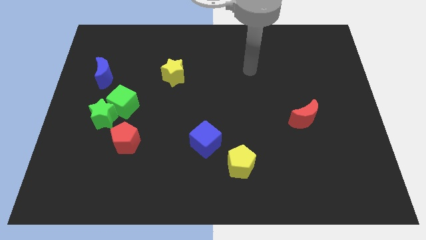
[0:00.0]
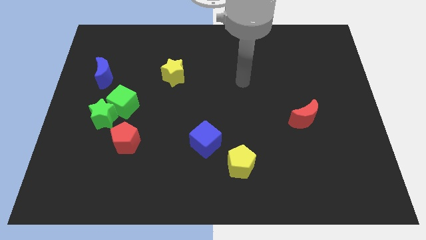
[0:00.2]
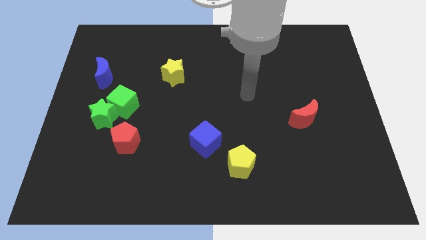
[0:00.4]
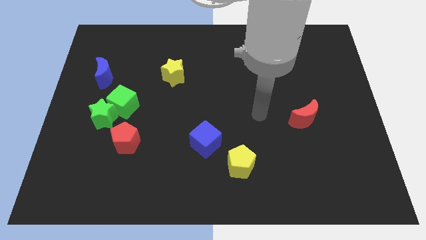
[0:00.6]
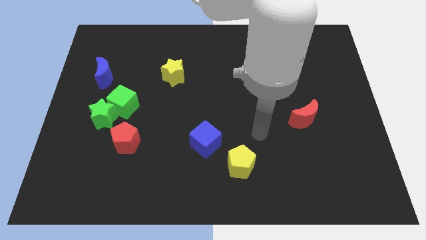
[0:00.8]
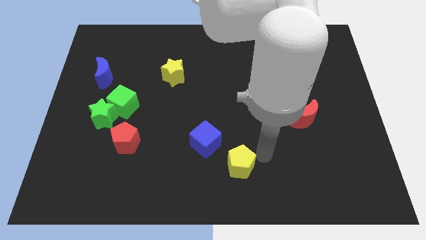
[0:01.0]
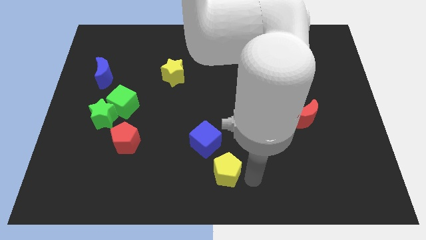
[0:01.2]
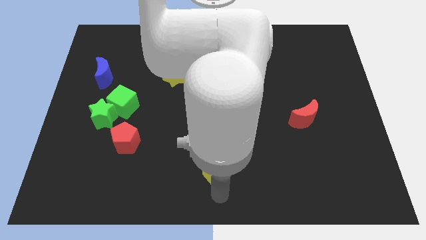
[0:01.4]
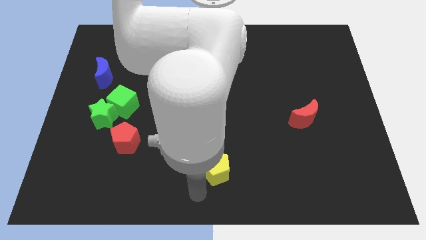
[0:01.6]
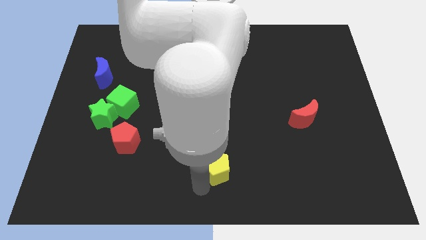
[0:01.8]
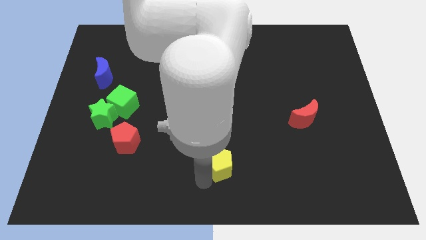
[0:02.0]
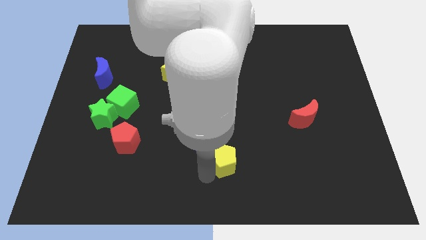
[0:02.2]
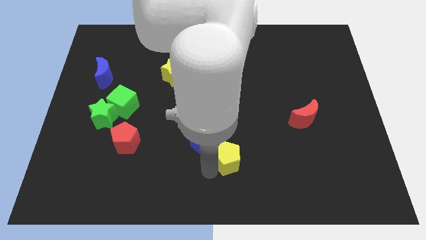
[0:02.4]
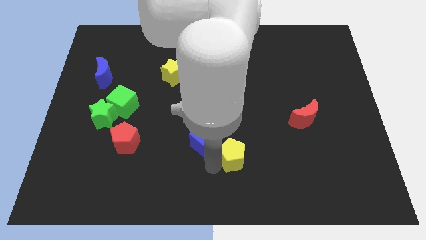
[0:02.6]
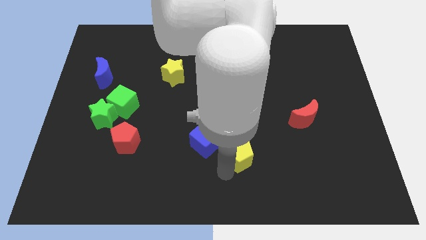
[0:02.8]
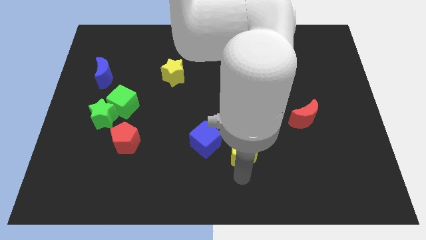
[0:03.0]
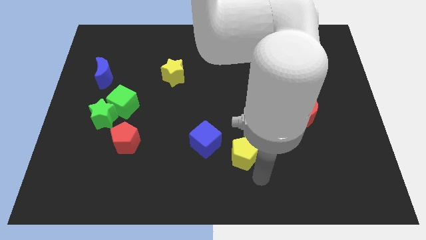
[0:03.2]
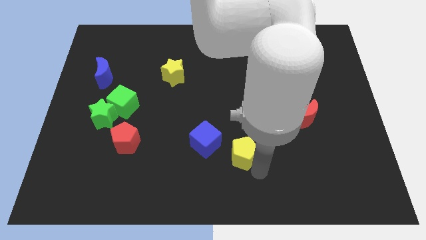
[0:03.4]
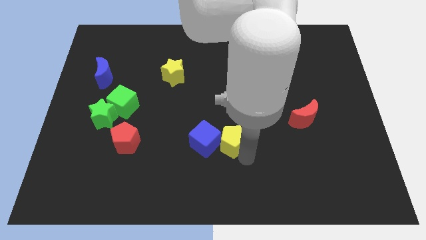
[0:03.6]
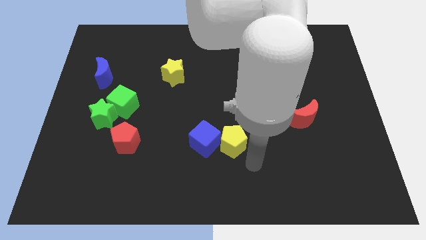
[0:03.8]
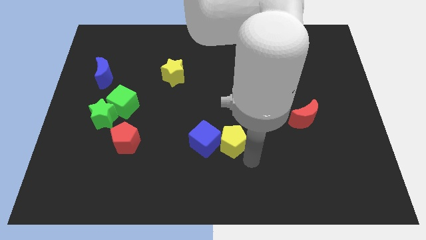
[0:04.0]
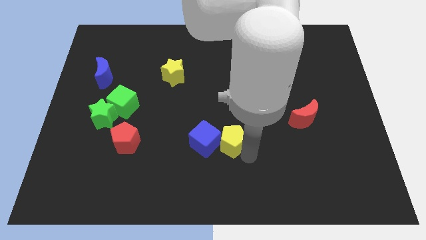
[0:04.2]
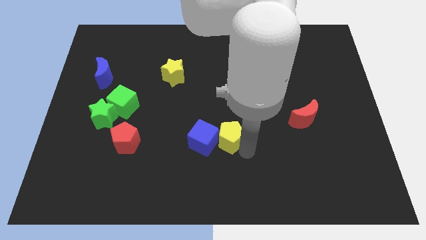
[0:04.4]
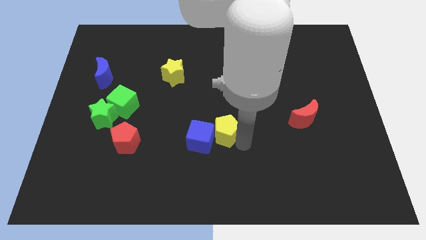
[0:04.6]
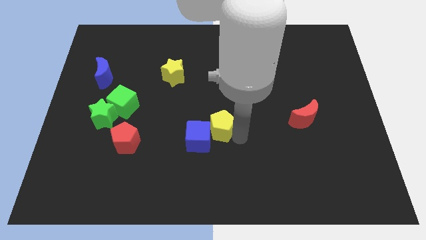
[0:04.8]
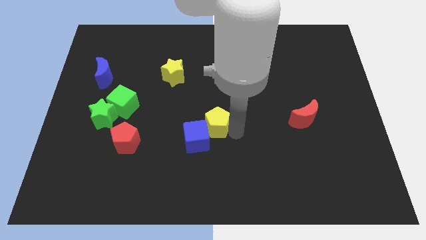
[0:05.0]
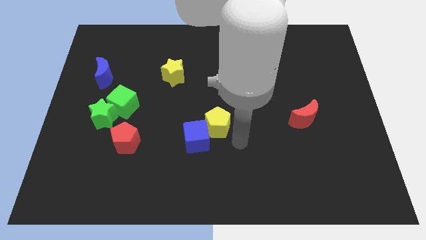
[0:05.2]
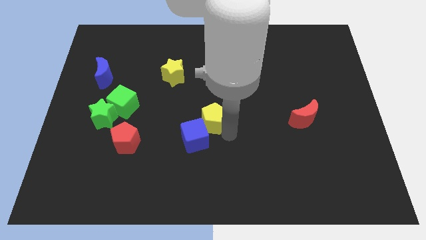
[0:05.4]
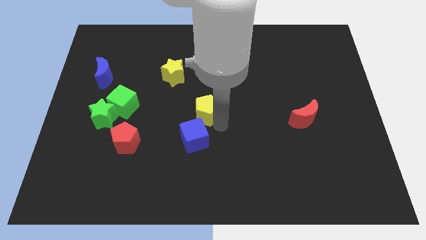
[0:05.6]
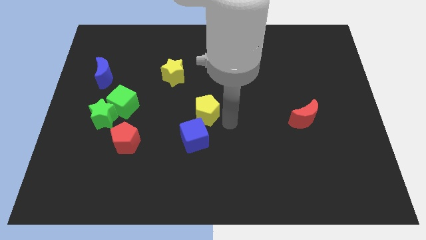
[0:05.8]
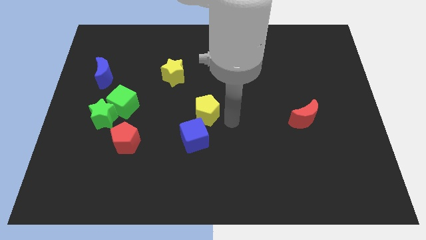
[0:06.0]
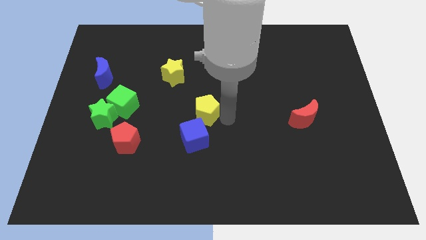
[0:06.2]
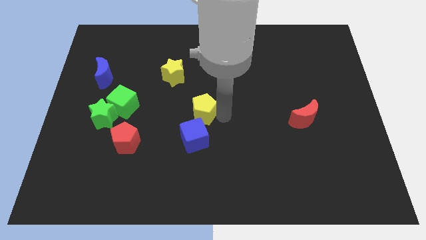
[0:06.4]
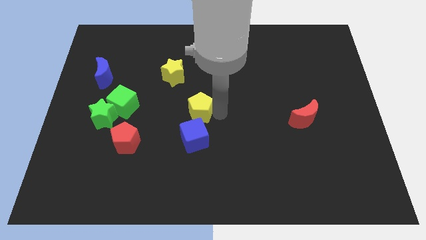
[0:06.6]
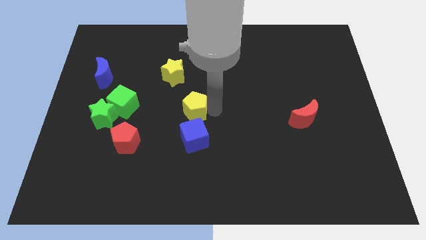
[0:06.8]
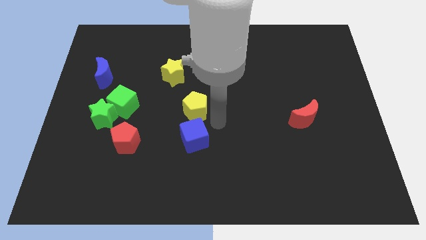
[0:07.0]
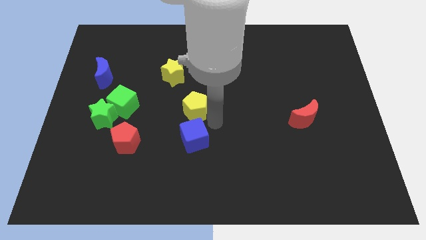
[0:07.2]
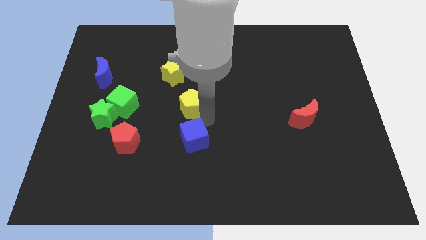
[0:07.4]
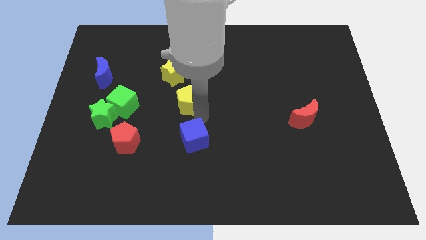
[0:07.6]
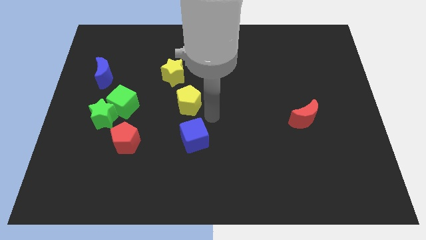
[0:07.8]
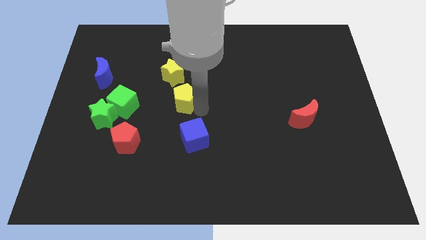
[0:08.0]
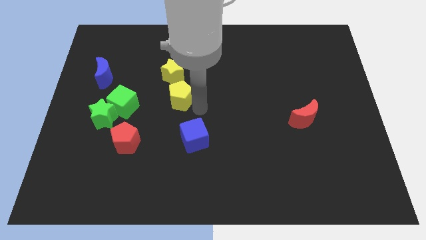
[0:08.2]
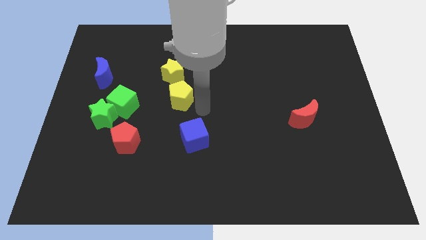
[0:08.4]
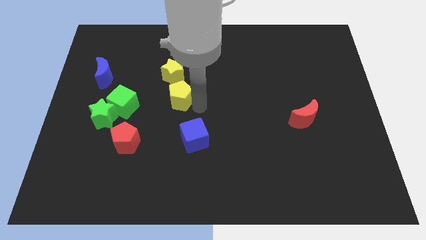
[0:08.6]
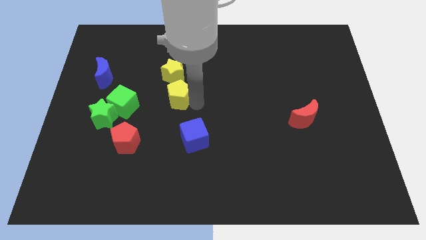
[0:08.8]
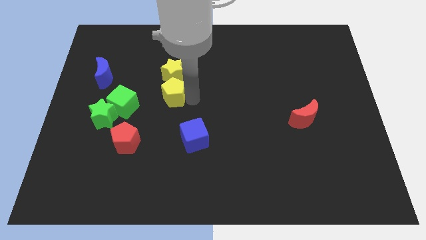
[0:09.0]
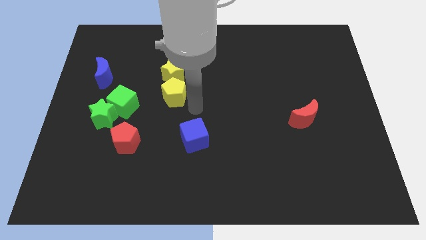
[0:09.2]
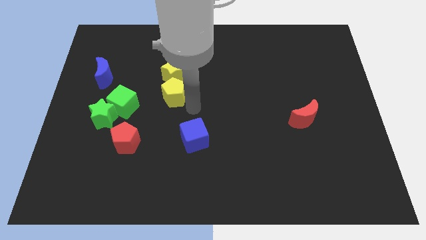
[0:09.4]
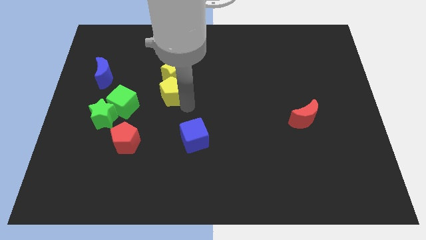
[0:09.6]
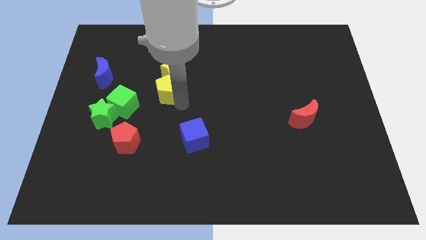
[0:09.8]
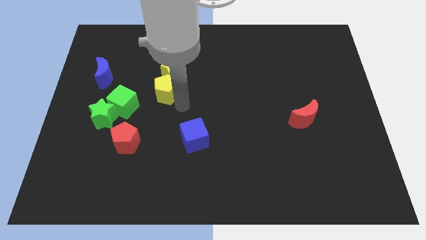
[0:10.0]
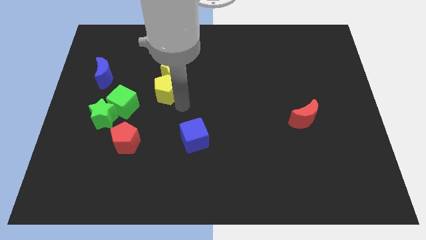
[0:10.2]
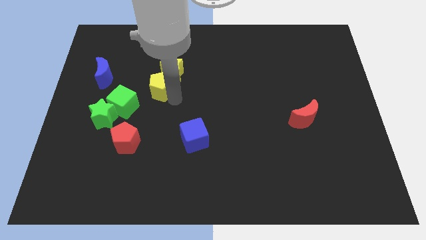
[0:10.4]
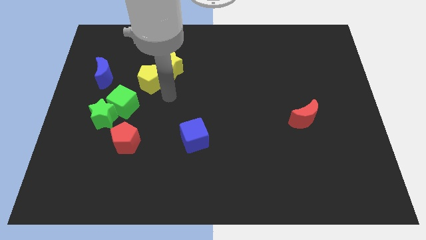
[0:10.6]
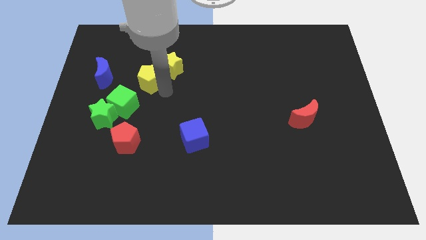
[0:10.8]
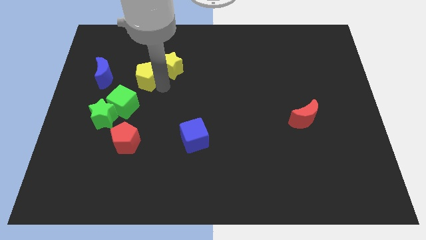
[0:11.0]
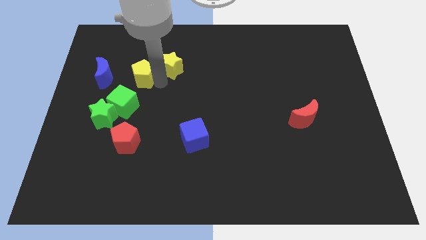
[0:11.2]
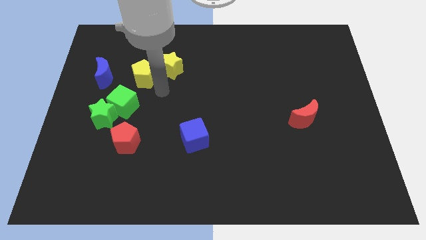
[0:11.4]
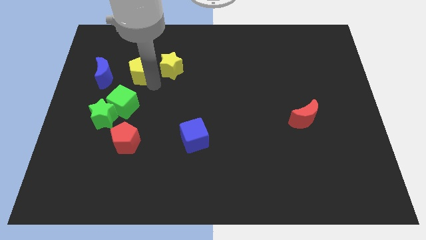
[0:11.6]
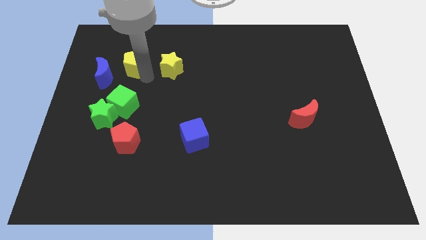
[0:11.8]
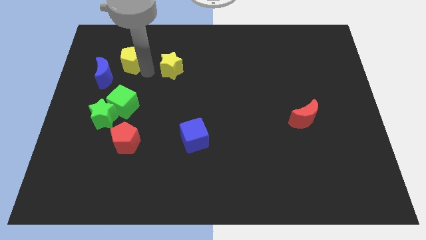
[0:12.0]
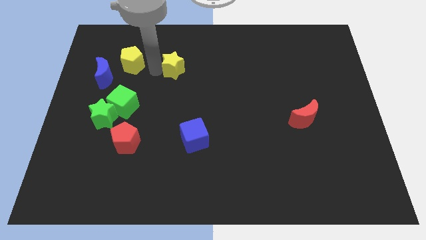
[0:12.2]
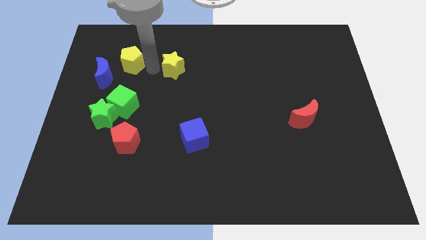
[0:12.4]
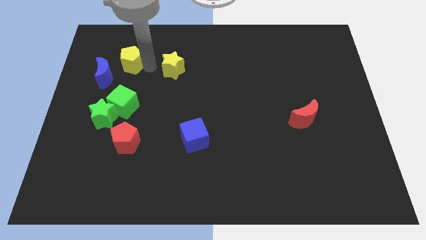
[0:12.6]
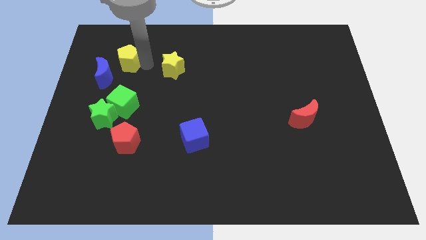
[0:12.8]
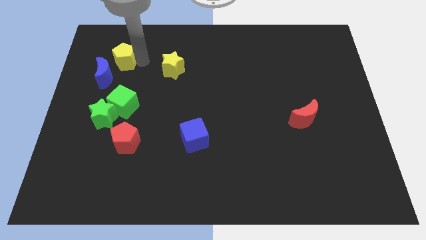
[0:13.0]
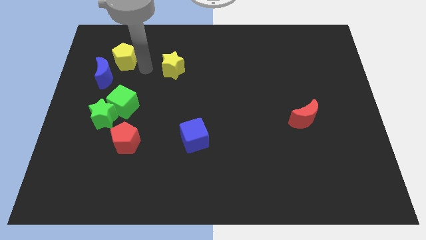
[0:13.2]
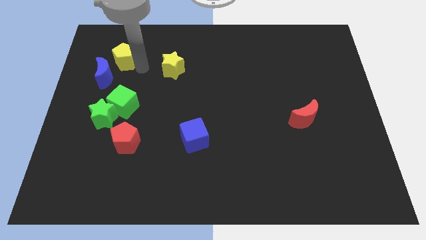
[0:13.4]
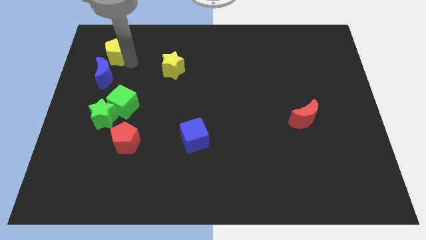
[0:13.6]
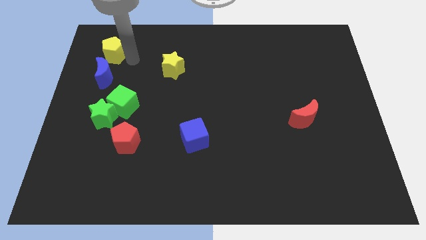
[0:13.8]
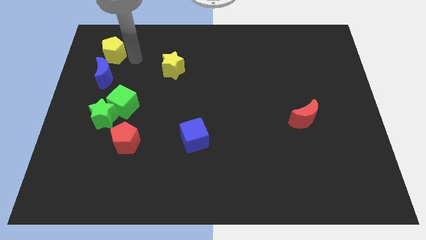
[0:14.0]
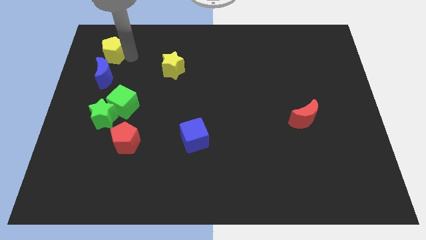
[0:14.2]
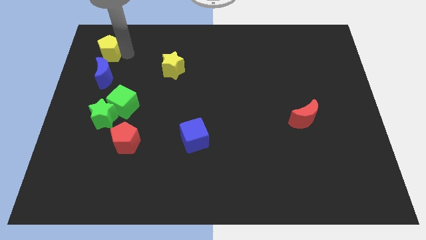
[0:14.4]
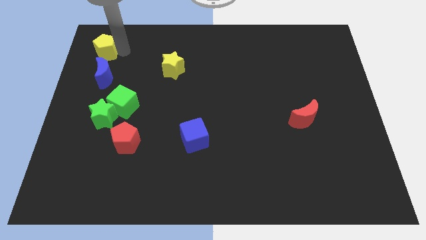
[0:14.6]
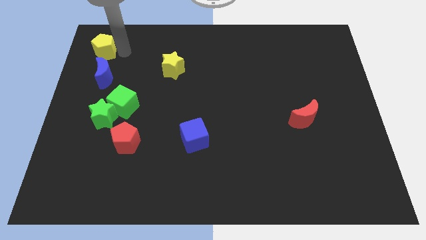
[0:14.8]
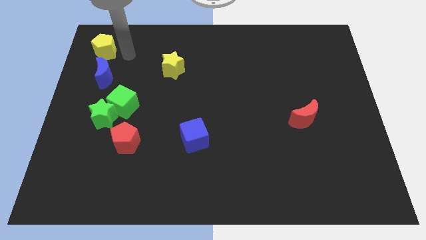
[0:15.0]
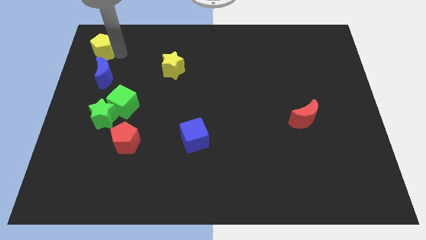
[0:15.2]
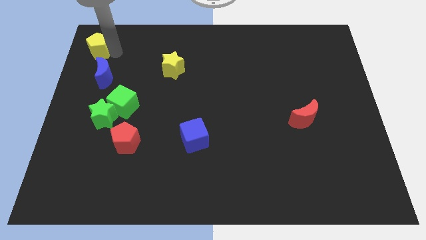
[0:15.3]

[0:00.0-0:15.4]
push the yellow pentagon to the top left corner
